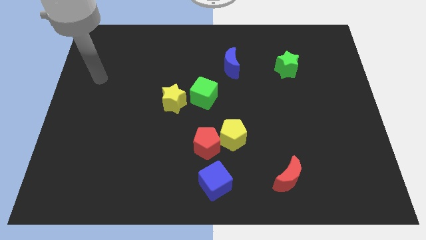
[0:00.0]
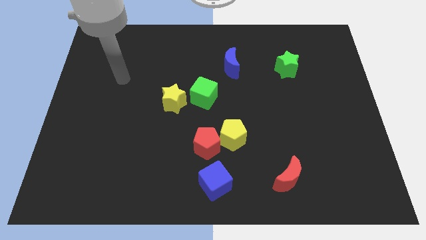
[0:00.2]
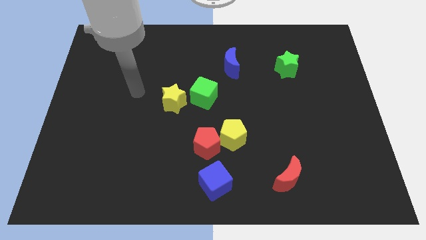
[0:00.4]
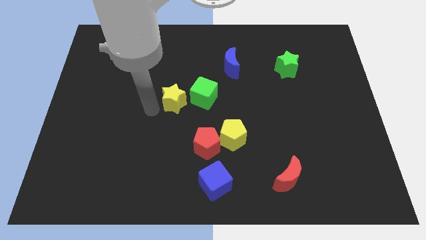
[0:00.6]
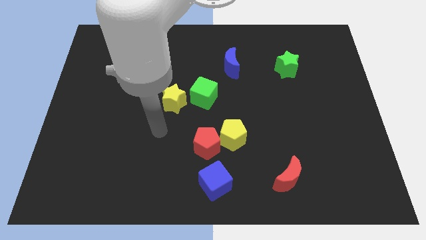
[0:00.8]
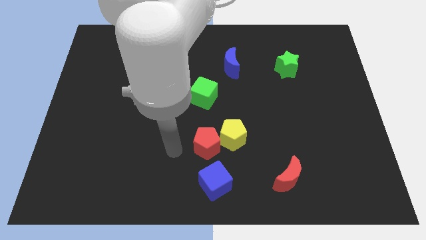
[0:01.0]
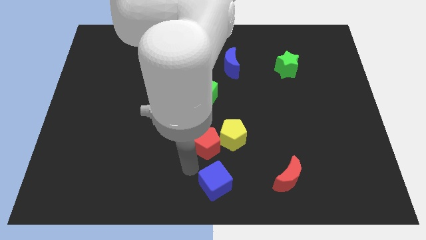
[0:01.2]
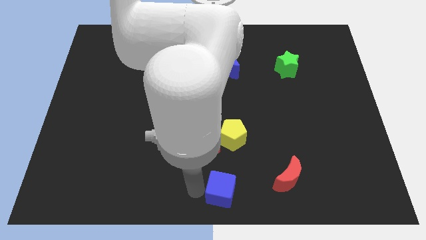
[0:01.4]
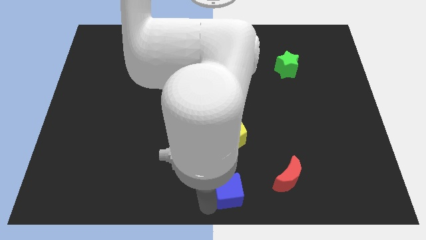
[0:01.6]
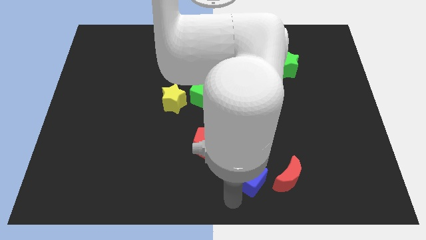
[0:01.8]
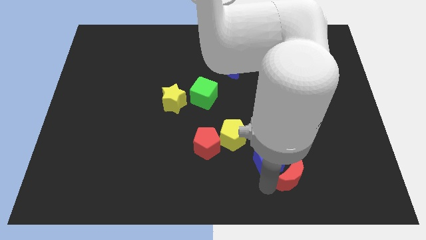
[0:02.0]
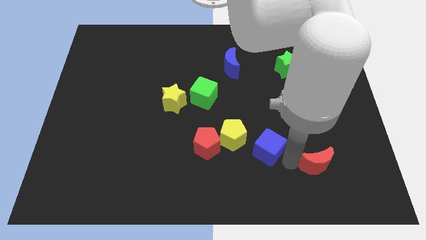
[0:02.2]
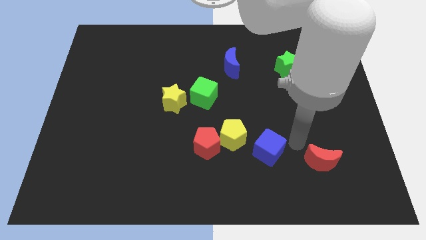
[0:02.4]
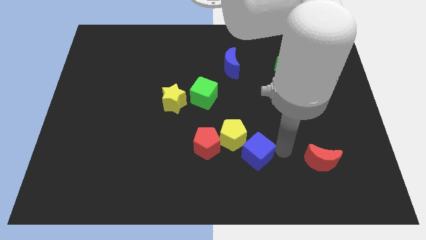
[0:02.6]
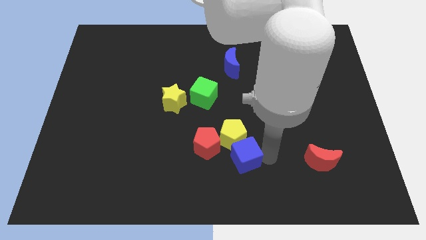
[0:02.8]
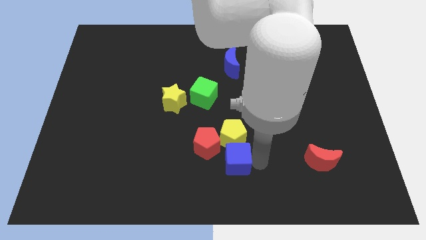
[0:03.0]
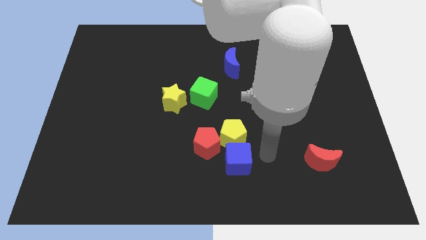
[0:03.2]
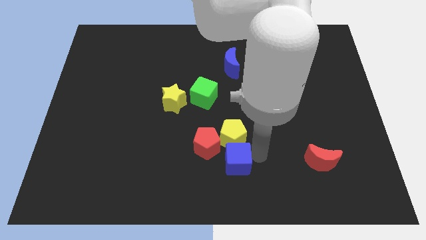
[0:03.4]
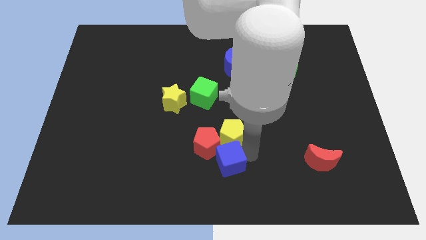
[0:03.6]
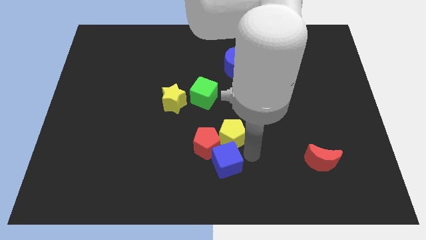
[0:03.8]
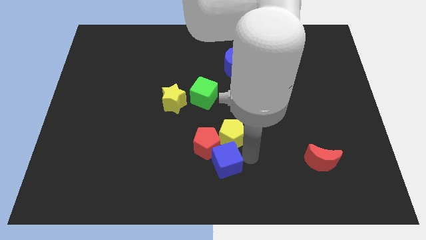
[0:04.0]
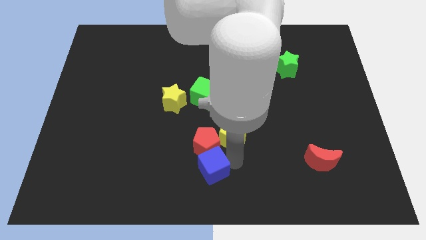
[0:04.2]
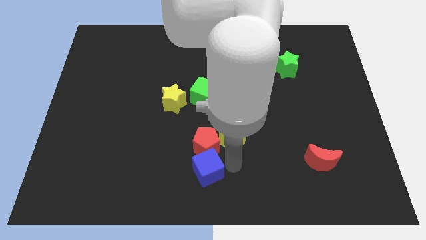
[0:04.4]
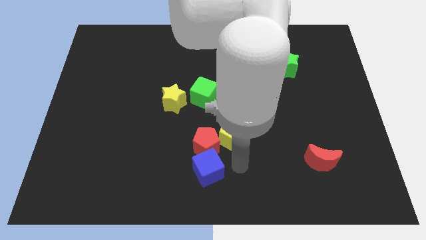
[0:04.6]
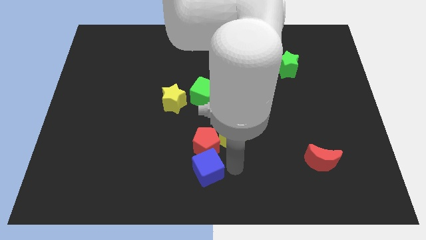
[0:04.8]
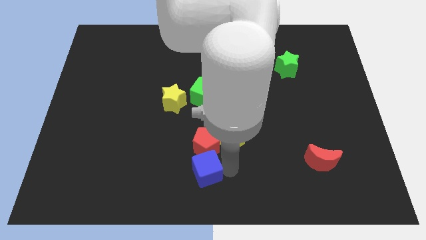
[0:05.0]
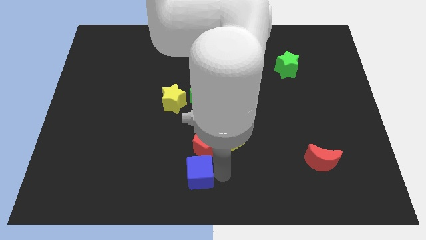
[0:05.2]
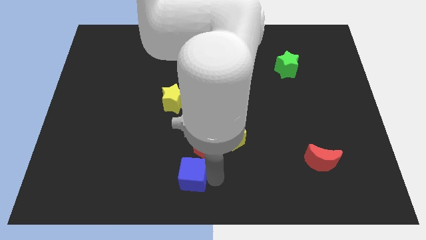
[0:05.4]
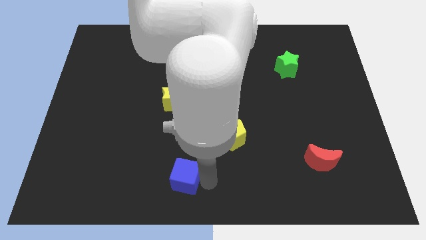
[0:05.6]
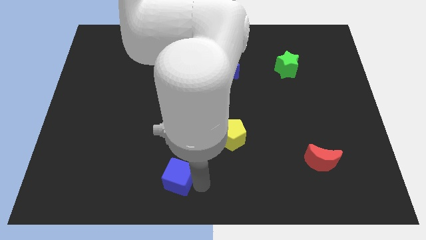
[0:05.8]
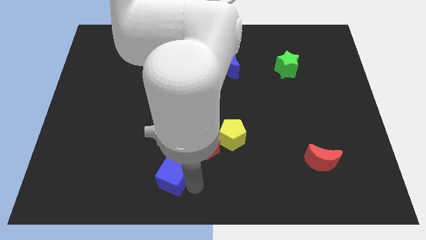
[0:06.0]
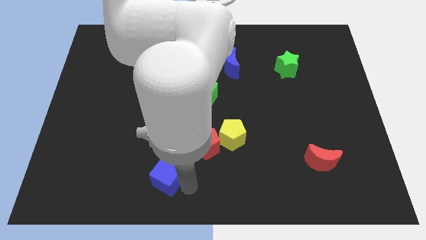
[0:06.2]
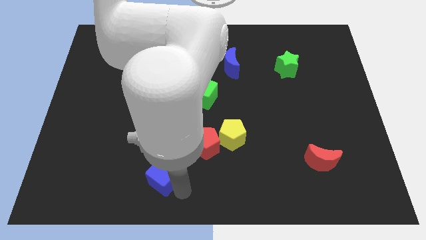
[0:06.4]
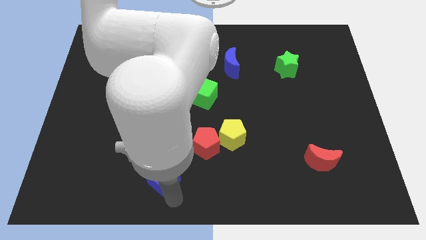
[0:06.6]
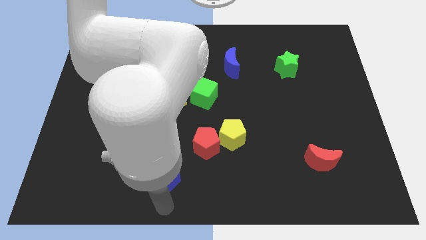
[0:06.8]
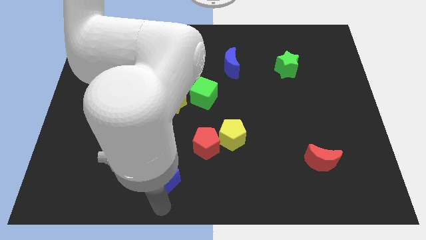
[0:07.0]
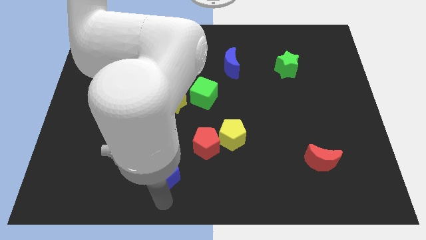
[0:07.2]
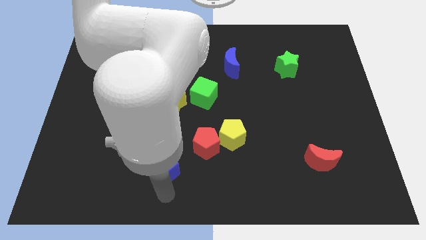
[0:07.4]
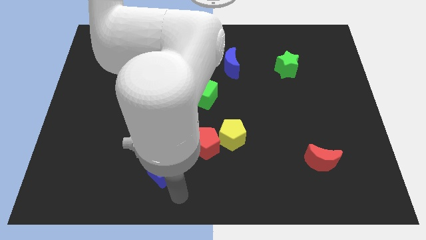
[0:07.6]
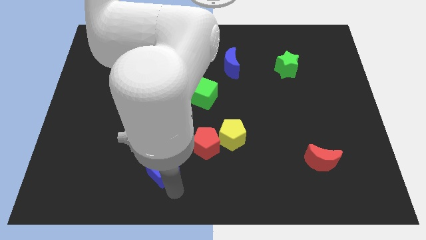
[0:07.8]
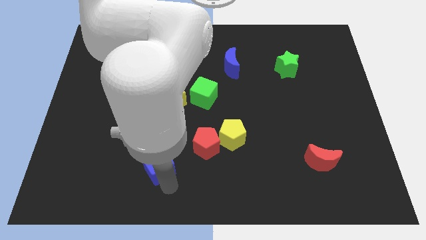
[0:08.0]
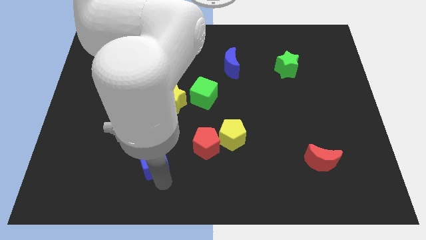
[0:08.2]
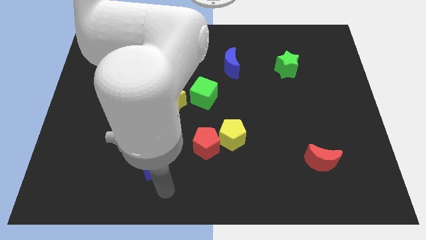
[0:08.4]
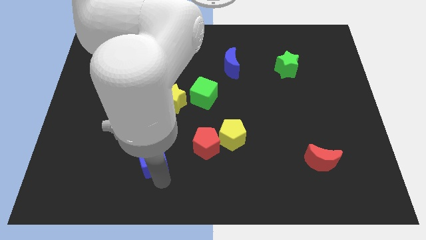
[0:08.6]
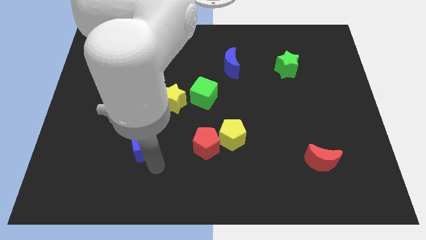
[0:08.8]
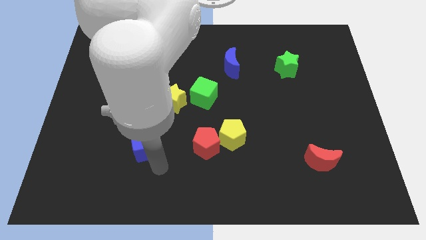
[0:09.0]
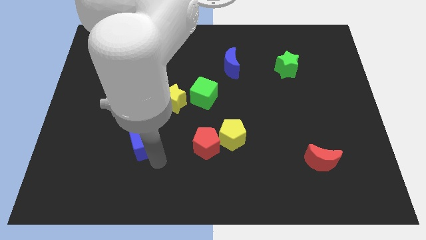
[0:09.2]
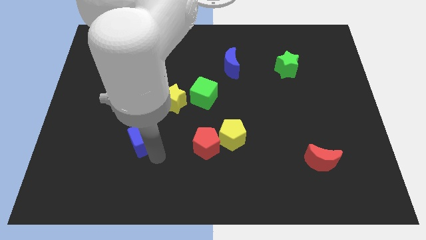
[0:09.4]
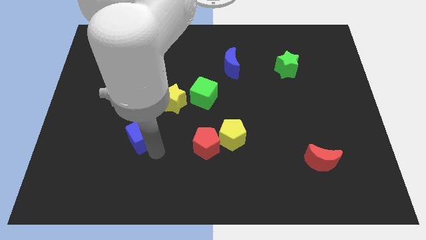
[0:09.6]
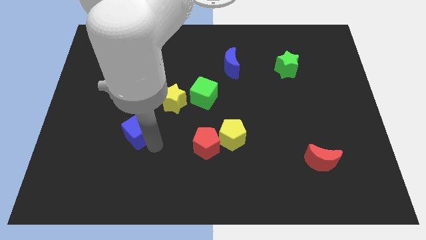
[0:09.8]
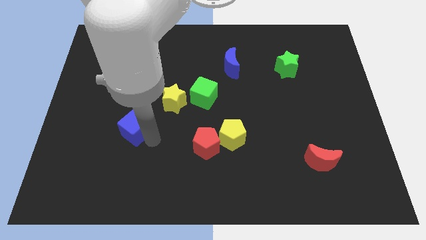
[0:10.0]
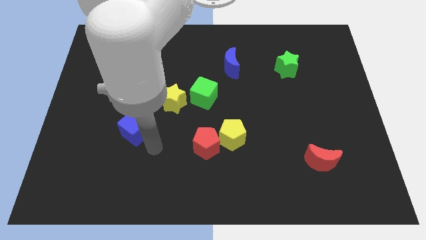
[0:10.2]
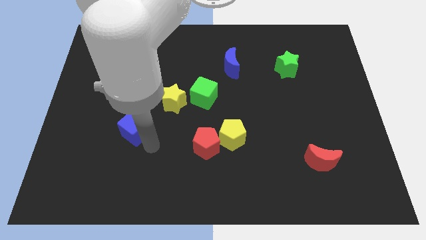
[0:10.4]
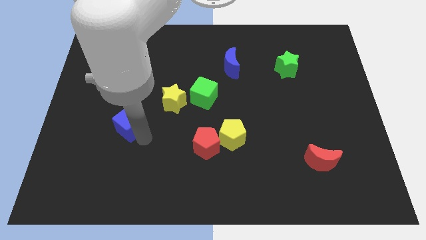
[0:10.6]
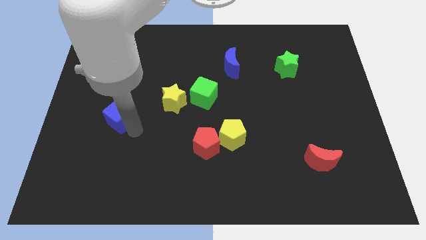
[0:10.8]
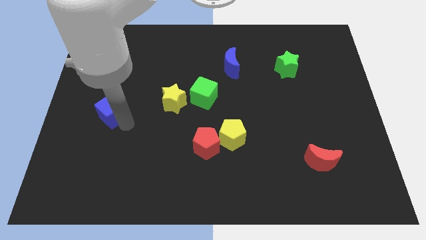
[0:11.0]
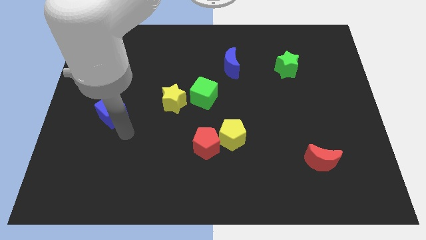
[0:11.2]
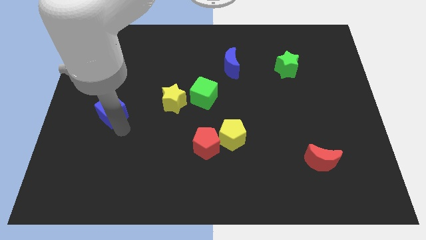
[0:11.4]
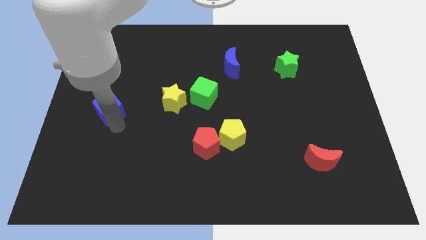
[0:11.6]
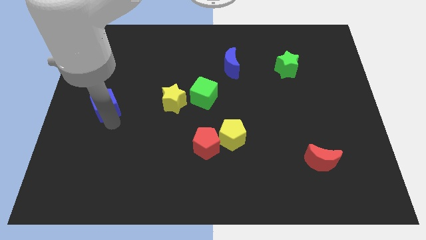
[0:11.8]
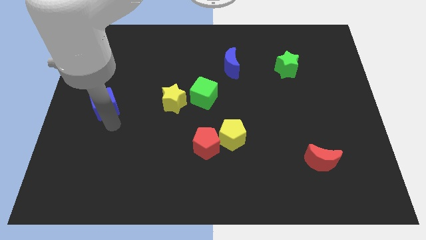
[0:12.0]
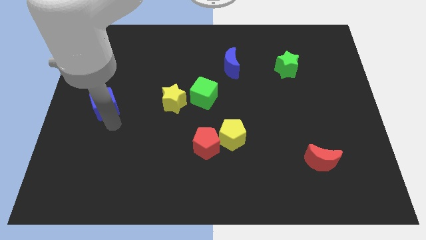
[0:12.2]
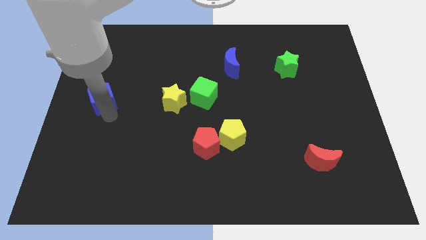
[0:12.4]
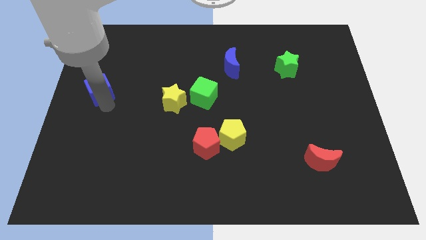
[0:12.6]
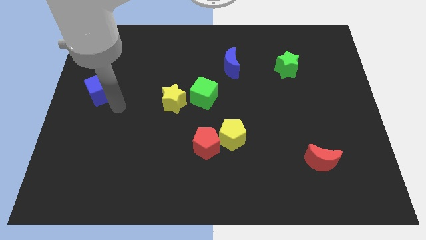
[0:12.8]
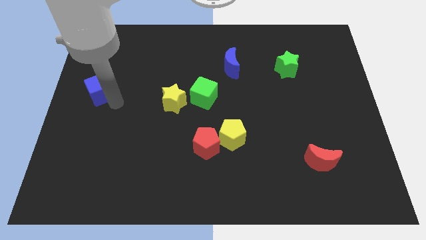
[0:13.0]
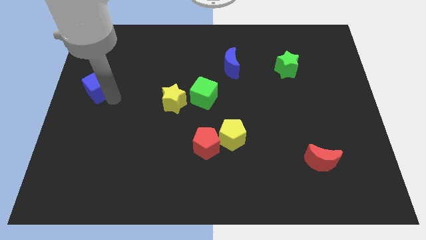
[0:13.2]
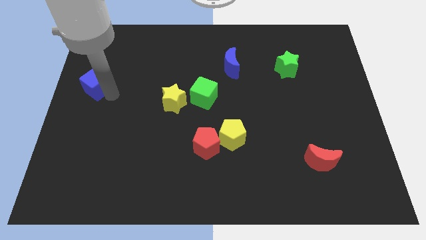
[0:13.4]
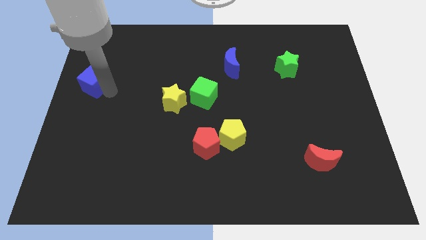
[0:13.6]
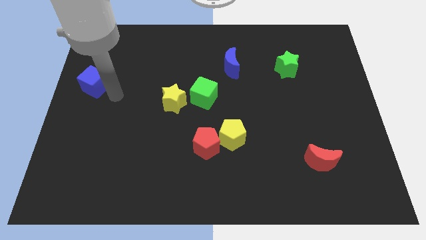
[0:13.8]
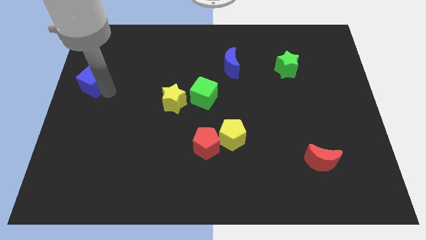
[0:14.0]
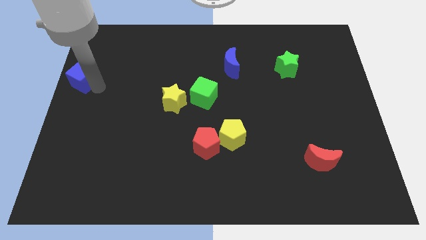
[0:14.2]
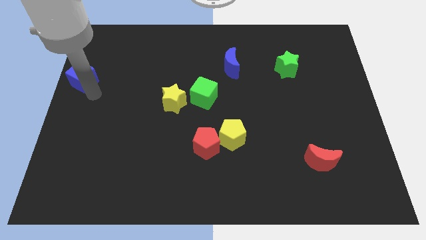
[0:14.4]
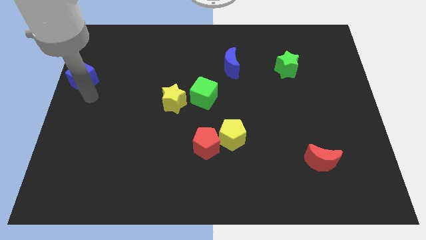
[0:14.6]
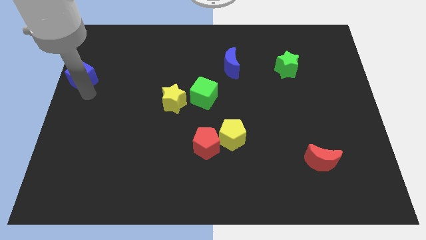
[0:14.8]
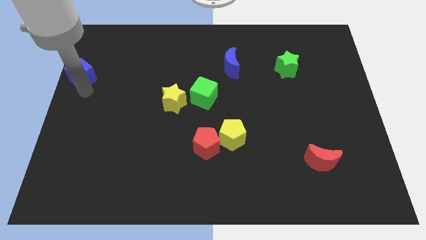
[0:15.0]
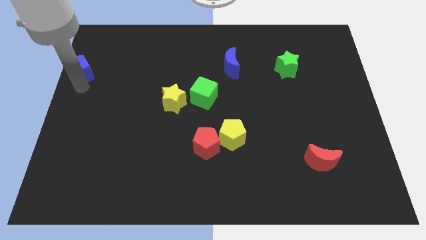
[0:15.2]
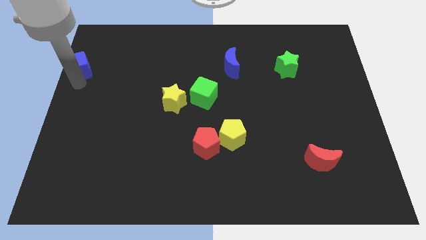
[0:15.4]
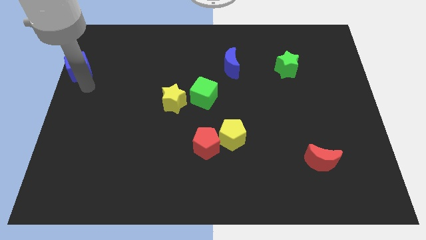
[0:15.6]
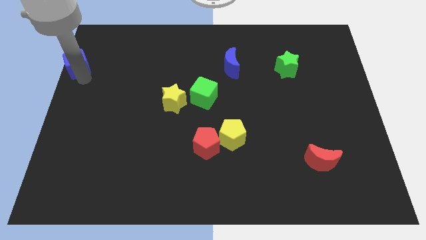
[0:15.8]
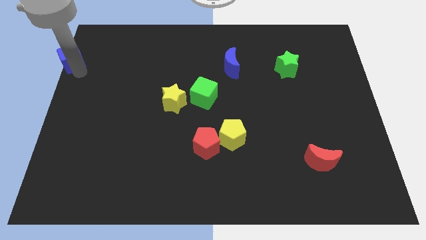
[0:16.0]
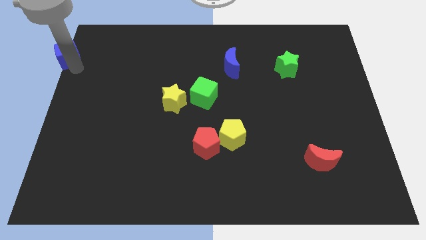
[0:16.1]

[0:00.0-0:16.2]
put the blue cube to the top left corner
